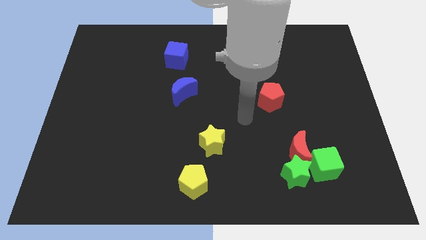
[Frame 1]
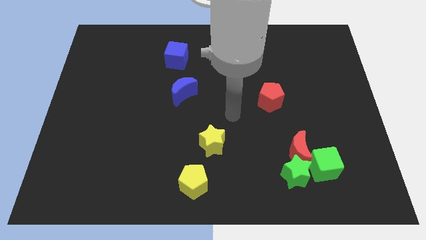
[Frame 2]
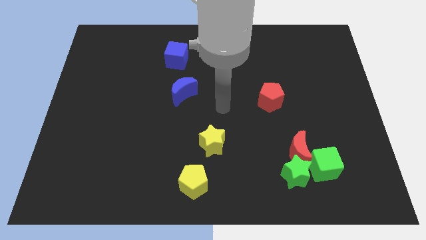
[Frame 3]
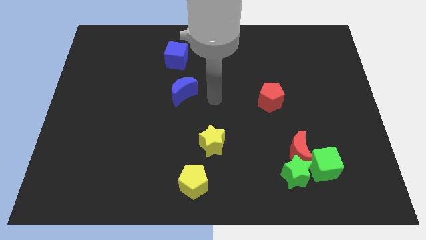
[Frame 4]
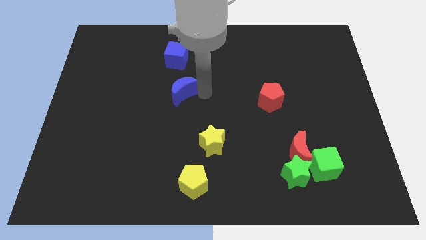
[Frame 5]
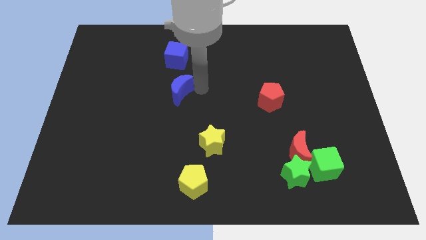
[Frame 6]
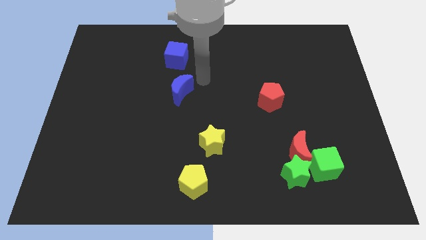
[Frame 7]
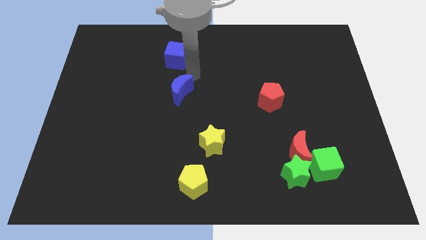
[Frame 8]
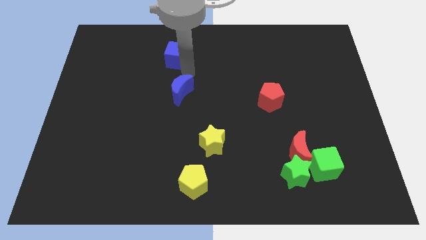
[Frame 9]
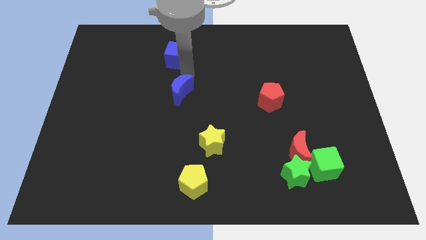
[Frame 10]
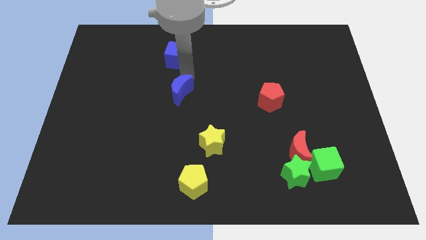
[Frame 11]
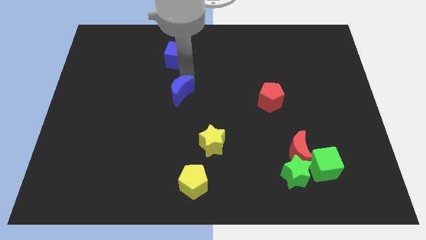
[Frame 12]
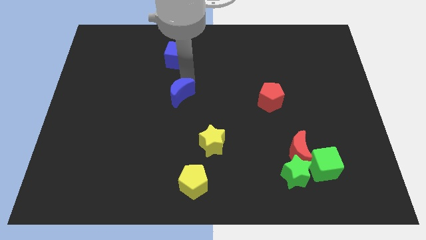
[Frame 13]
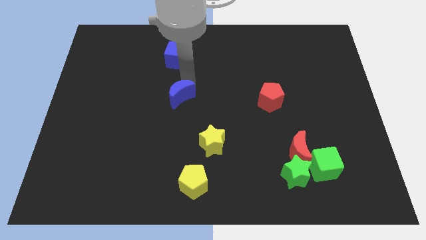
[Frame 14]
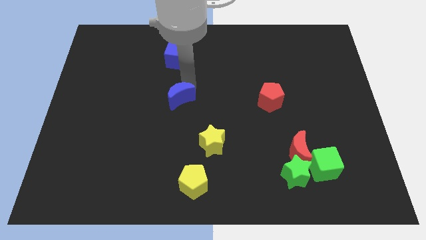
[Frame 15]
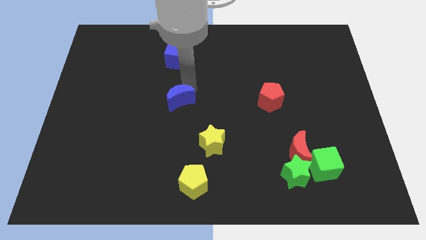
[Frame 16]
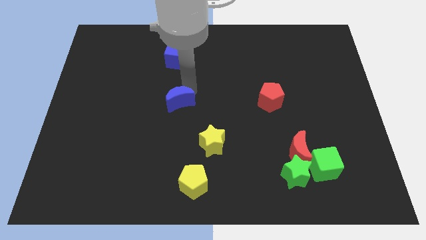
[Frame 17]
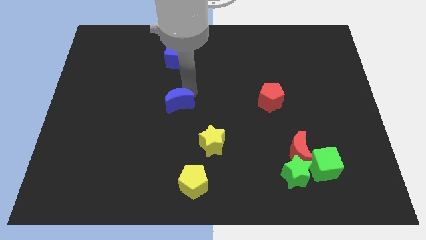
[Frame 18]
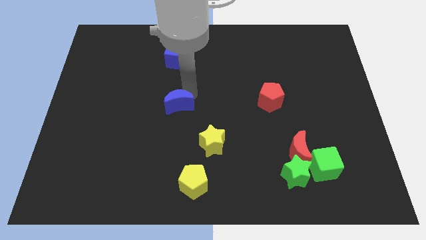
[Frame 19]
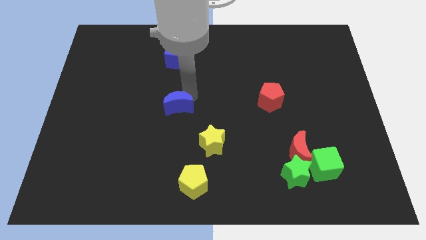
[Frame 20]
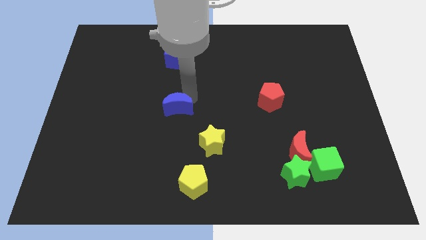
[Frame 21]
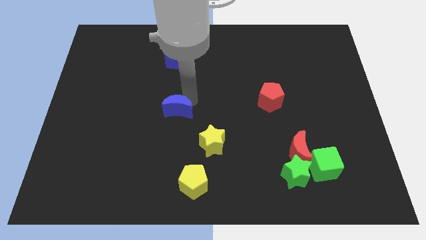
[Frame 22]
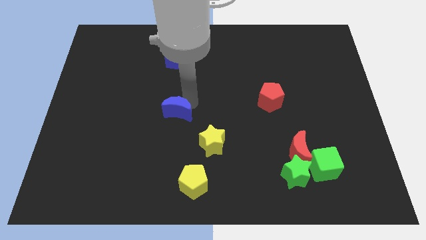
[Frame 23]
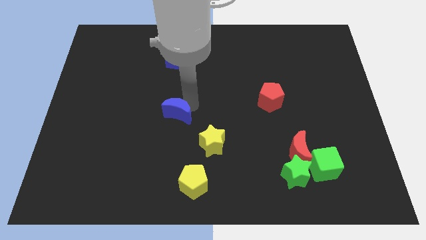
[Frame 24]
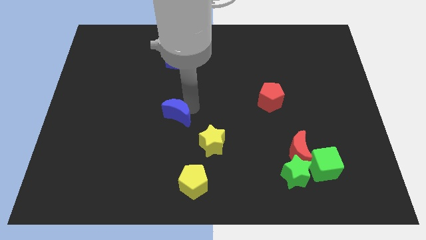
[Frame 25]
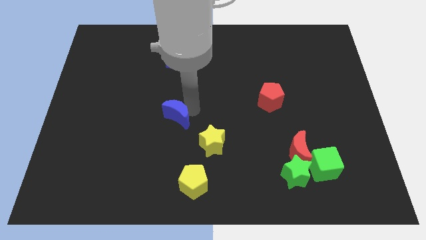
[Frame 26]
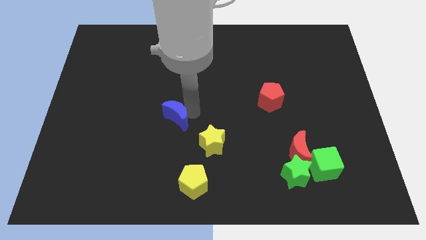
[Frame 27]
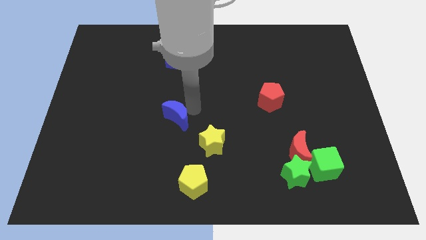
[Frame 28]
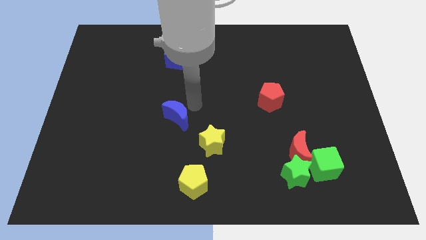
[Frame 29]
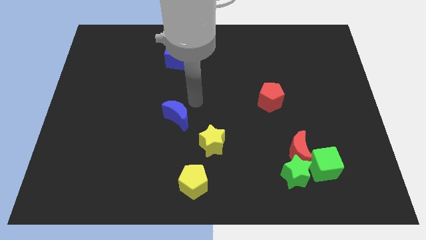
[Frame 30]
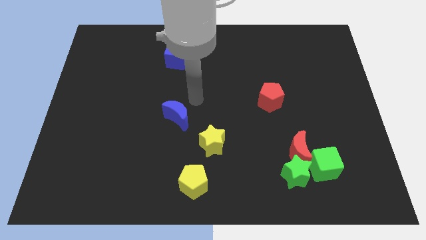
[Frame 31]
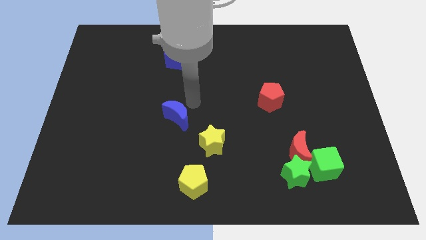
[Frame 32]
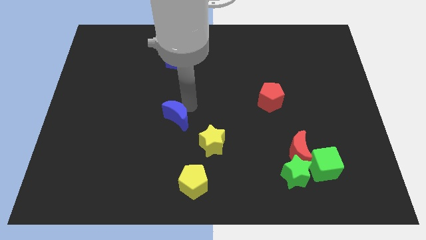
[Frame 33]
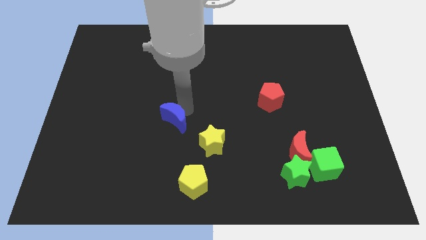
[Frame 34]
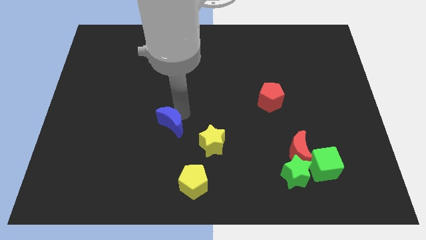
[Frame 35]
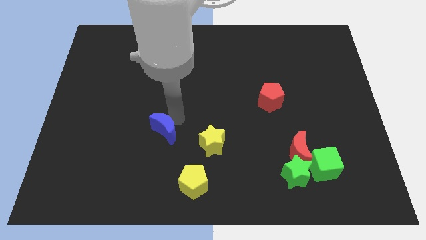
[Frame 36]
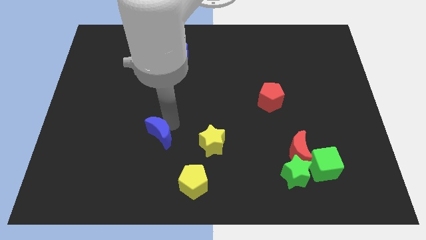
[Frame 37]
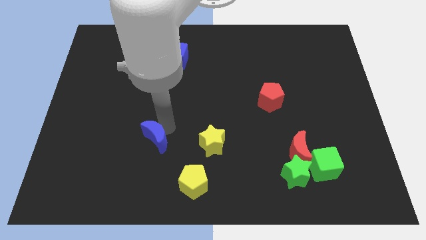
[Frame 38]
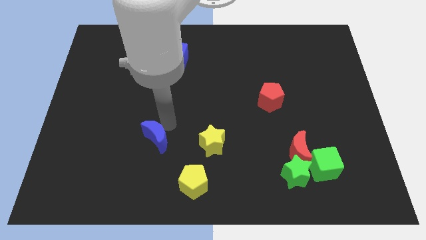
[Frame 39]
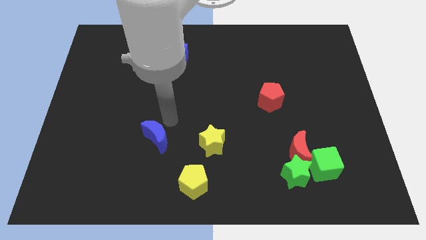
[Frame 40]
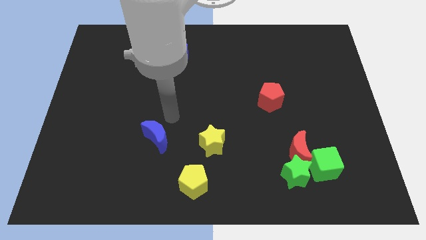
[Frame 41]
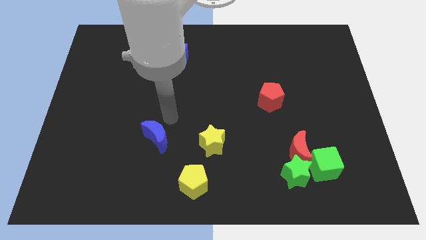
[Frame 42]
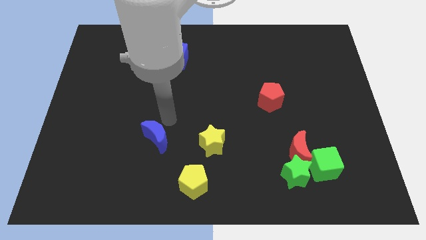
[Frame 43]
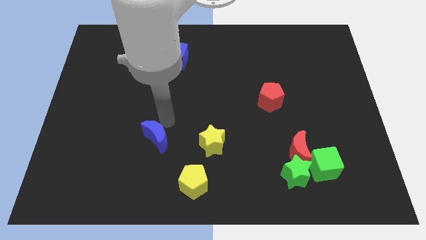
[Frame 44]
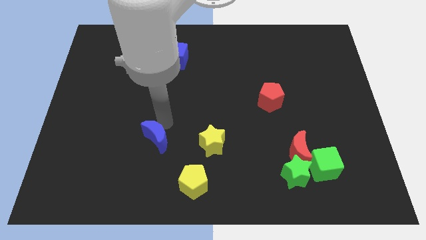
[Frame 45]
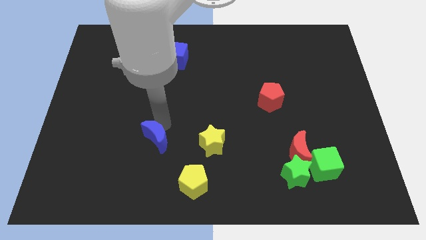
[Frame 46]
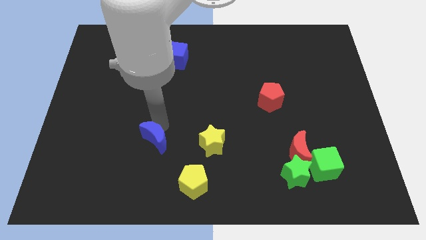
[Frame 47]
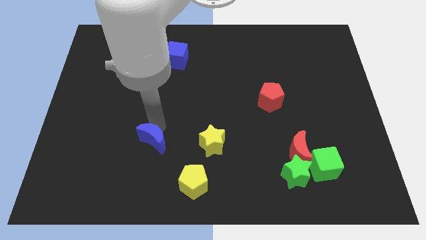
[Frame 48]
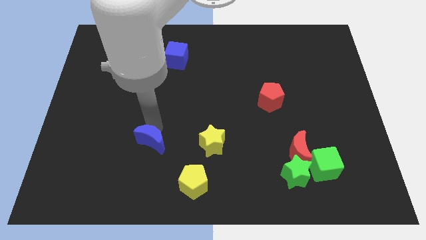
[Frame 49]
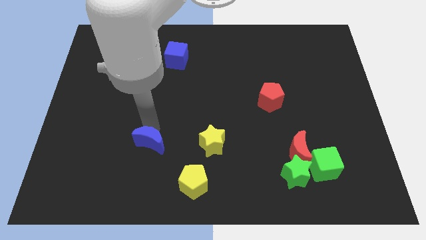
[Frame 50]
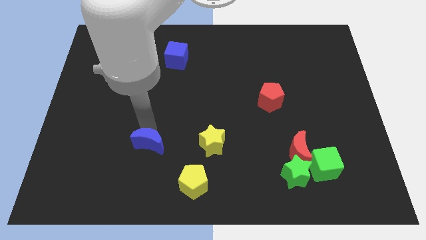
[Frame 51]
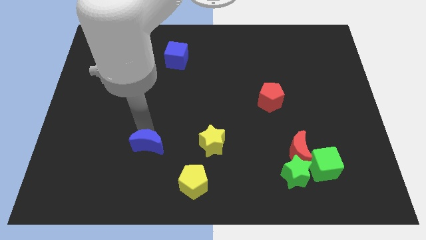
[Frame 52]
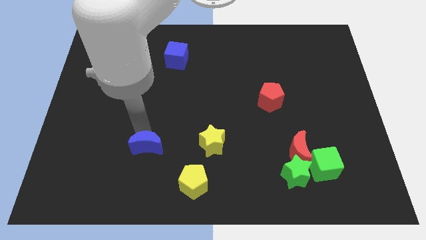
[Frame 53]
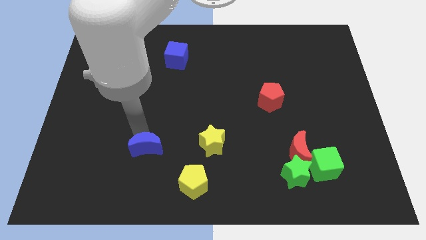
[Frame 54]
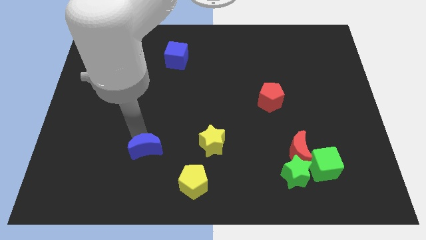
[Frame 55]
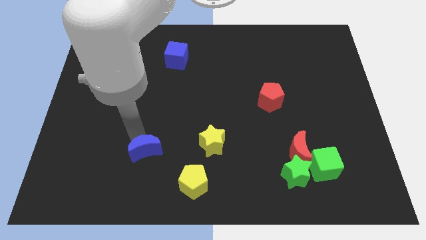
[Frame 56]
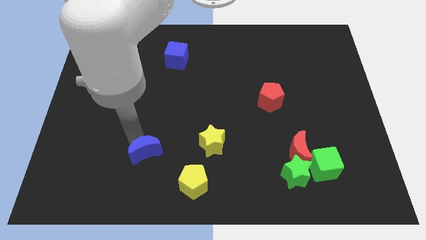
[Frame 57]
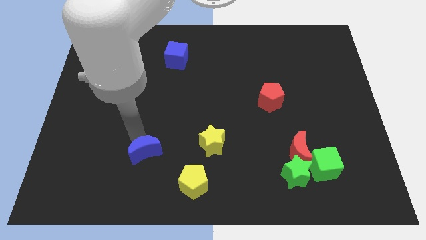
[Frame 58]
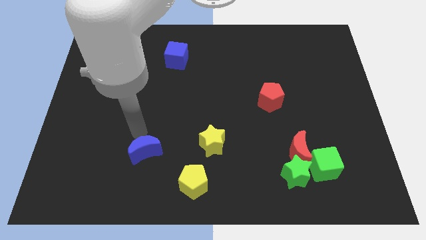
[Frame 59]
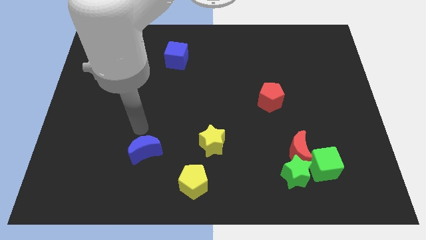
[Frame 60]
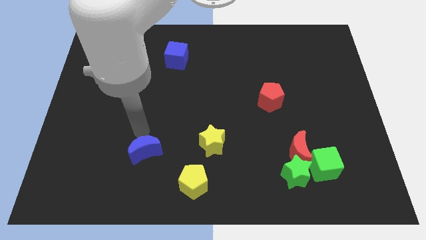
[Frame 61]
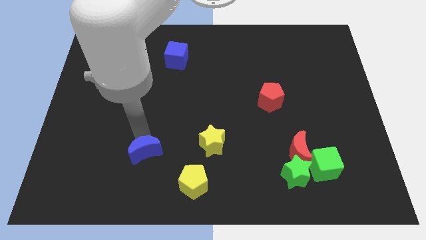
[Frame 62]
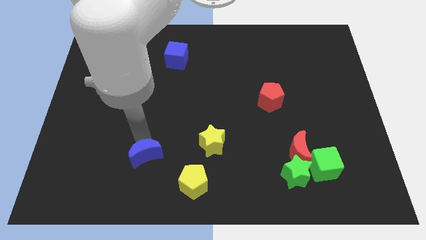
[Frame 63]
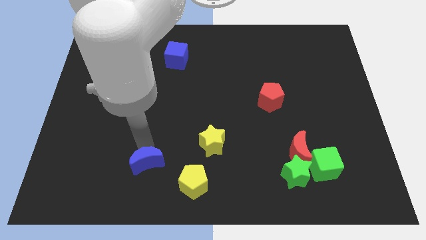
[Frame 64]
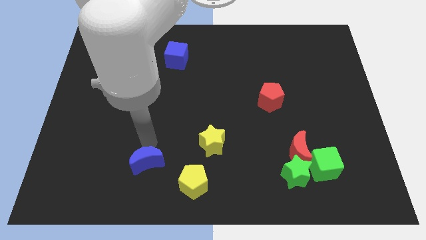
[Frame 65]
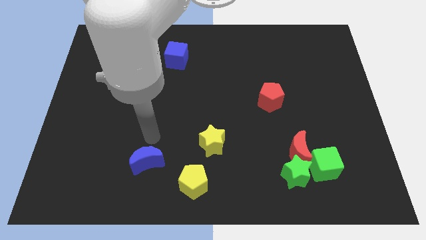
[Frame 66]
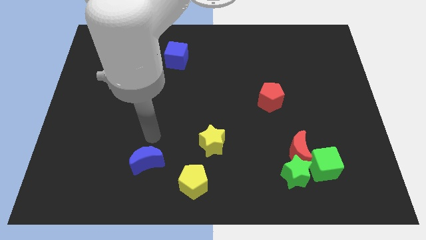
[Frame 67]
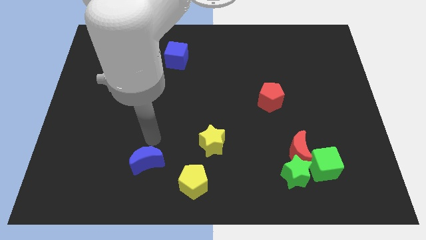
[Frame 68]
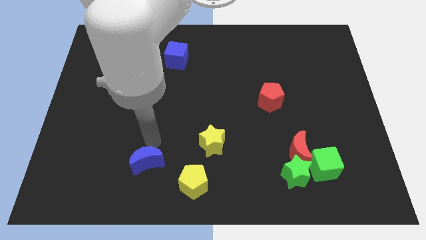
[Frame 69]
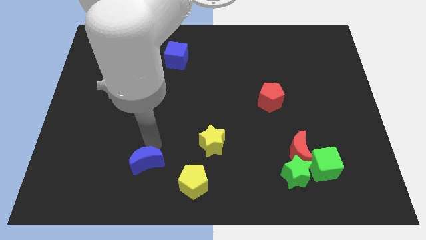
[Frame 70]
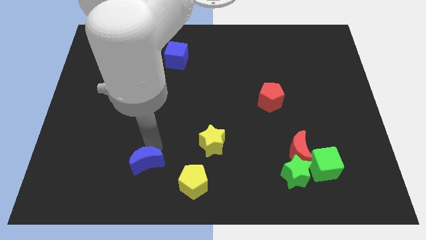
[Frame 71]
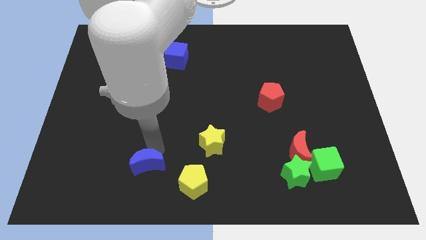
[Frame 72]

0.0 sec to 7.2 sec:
slide the blue moon just left of the yellow pentagon
